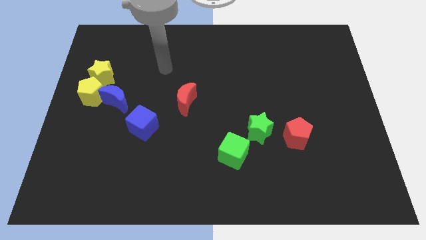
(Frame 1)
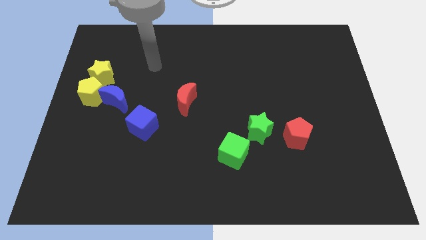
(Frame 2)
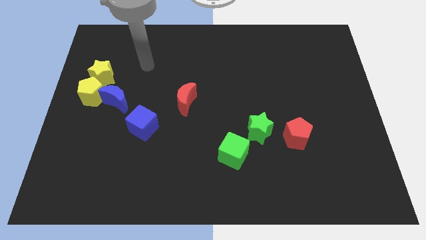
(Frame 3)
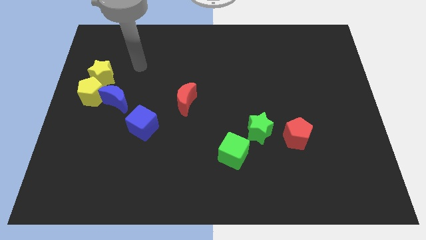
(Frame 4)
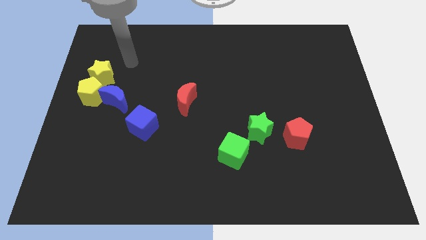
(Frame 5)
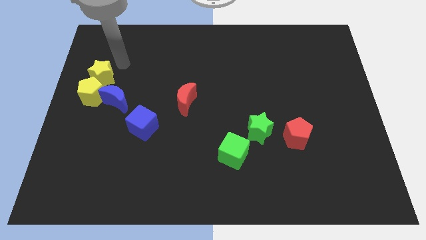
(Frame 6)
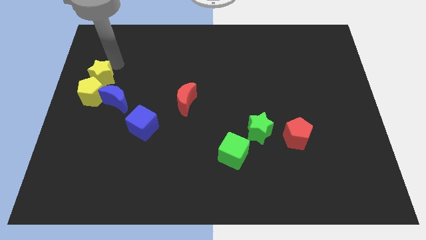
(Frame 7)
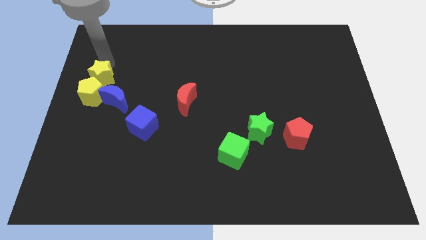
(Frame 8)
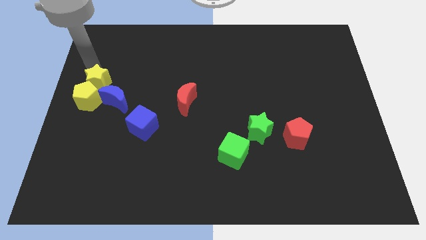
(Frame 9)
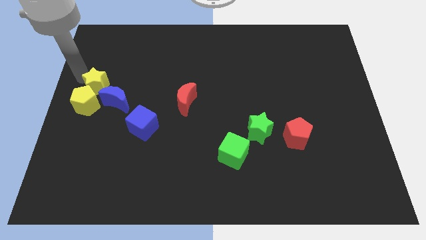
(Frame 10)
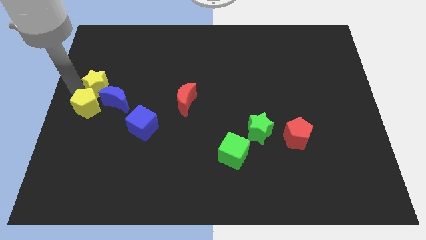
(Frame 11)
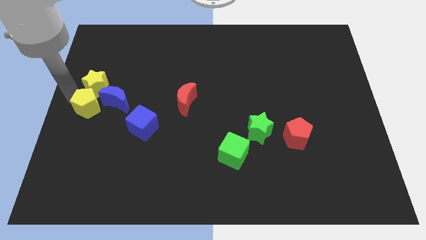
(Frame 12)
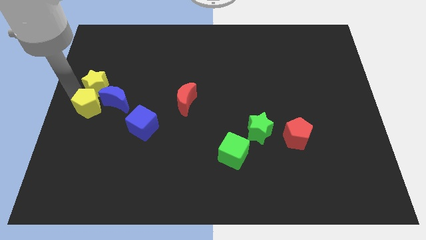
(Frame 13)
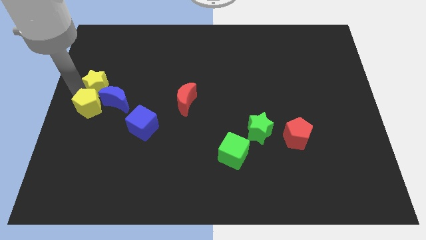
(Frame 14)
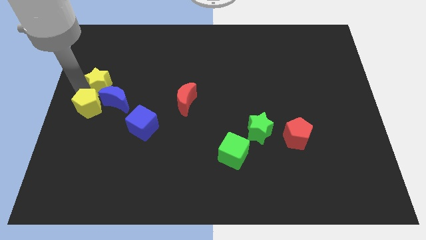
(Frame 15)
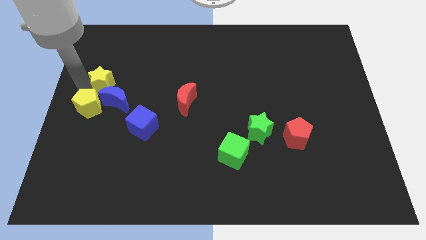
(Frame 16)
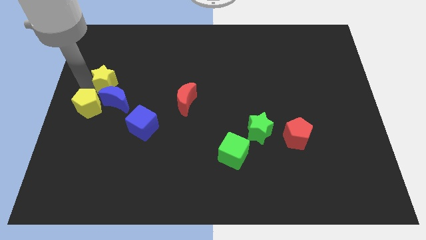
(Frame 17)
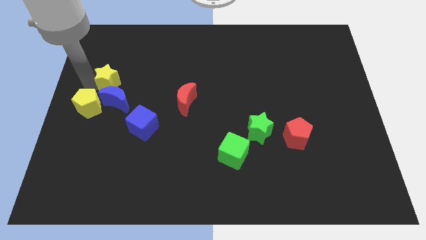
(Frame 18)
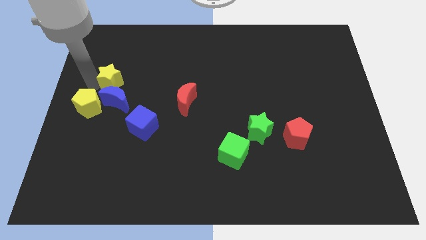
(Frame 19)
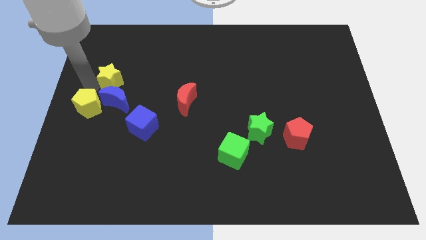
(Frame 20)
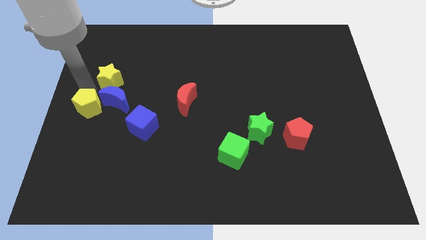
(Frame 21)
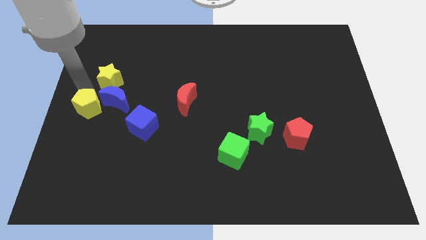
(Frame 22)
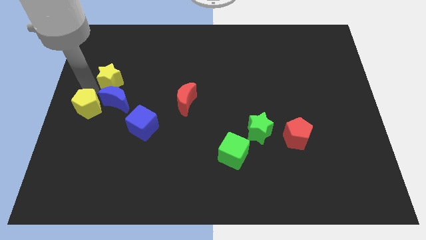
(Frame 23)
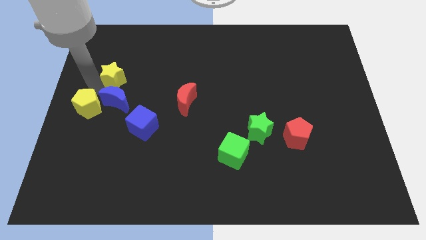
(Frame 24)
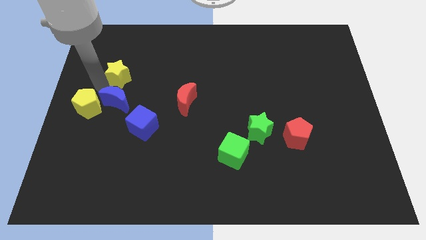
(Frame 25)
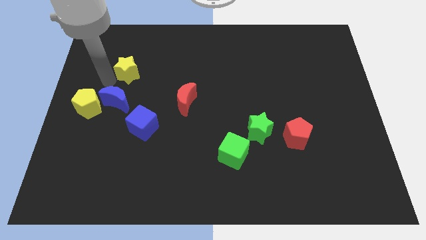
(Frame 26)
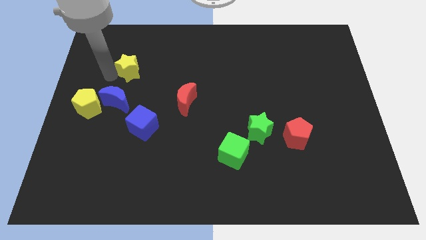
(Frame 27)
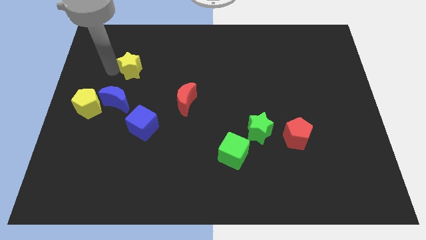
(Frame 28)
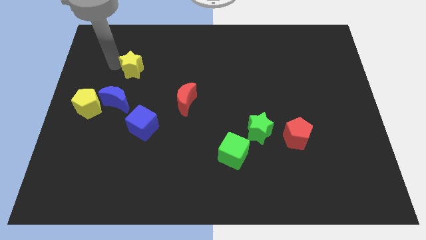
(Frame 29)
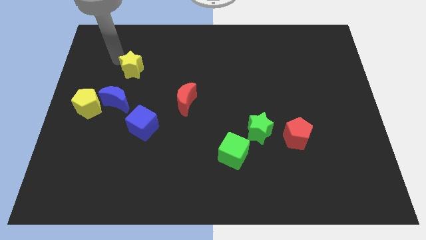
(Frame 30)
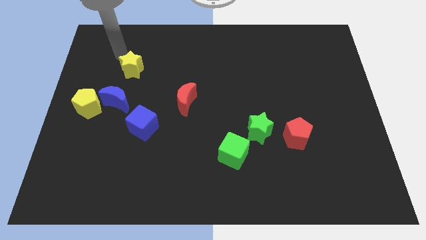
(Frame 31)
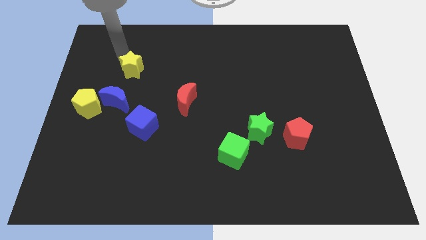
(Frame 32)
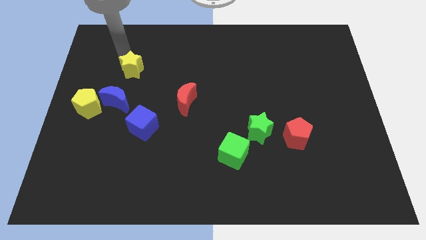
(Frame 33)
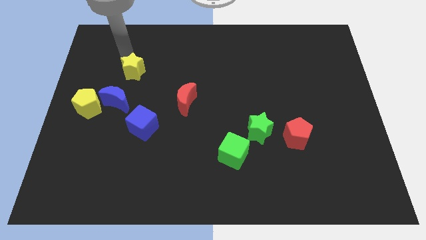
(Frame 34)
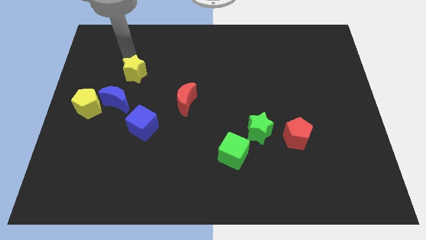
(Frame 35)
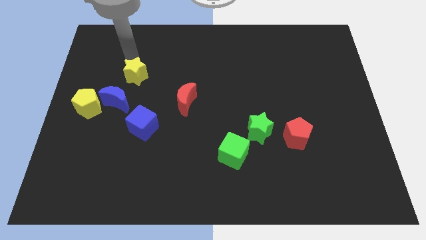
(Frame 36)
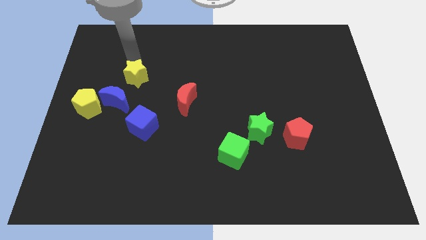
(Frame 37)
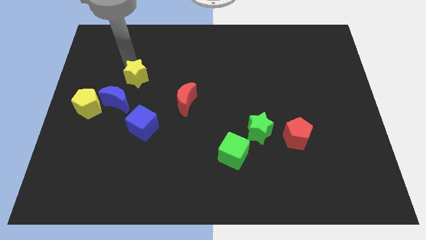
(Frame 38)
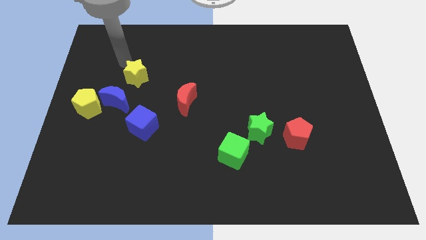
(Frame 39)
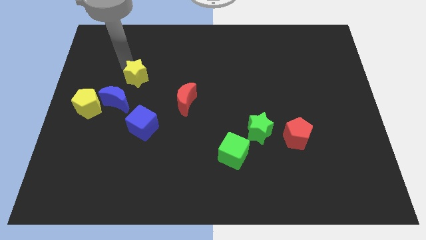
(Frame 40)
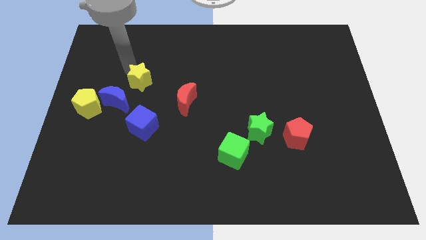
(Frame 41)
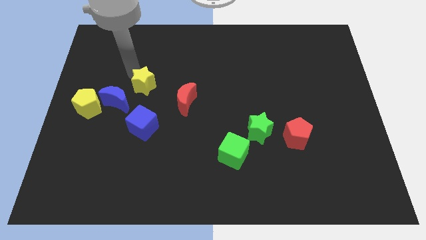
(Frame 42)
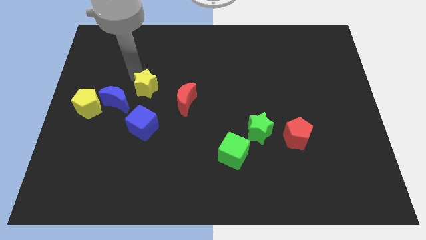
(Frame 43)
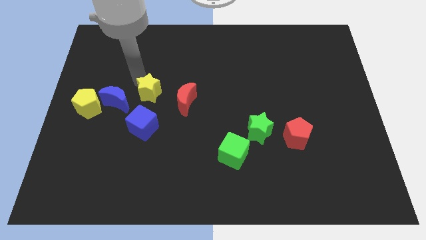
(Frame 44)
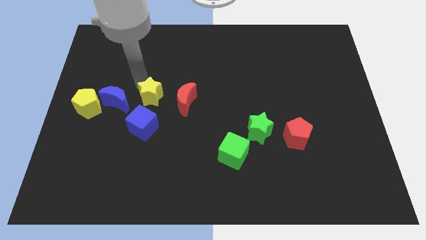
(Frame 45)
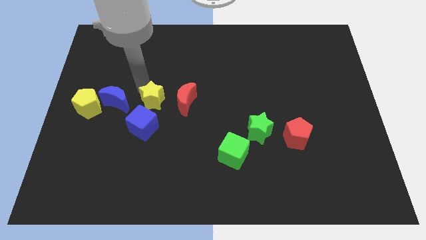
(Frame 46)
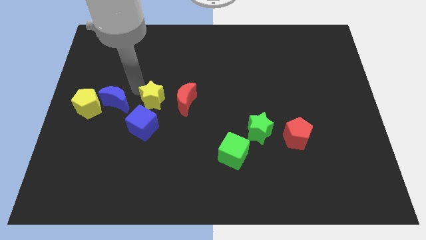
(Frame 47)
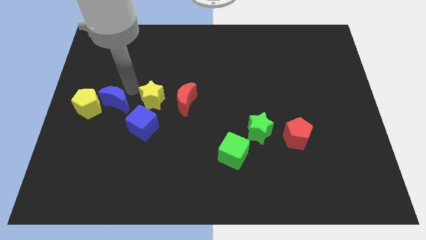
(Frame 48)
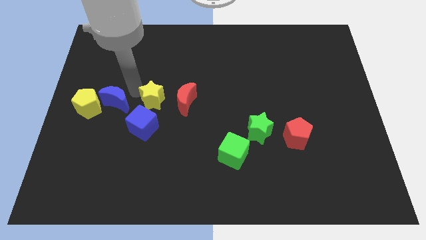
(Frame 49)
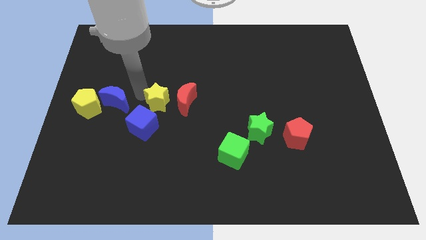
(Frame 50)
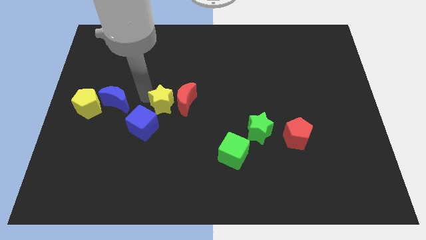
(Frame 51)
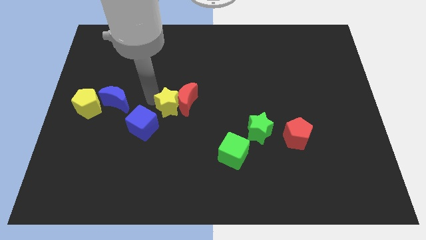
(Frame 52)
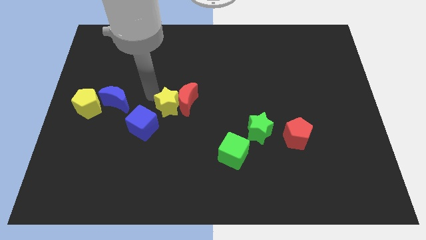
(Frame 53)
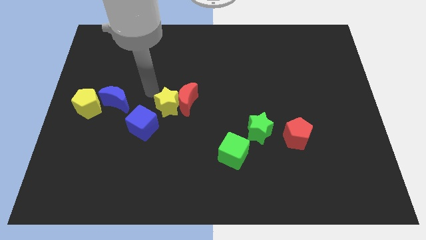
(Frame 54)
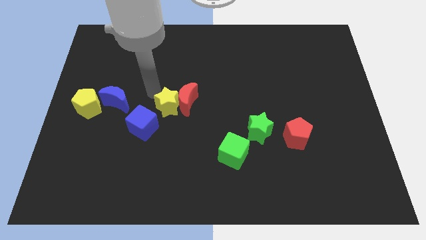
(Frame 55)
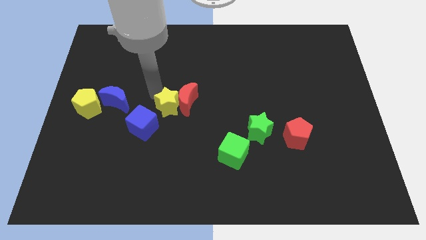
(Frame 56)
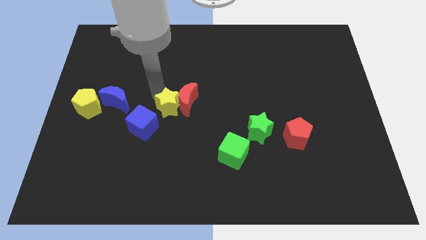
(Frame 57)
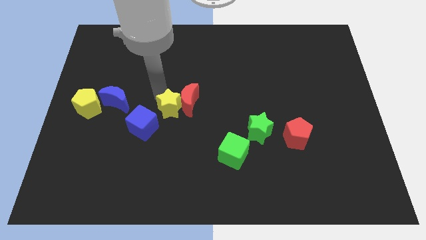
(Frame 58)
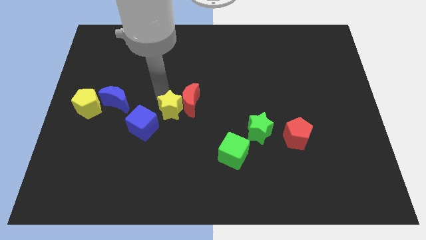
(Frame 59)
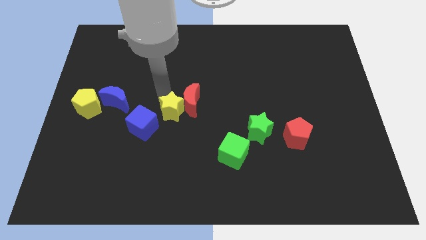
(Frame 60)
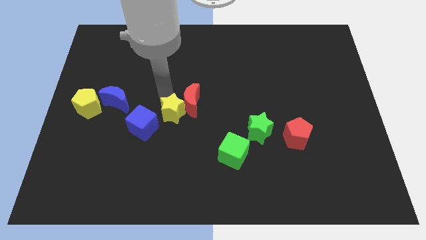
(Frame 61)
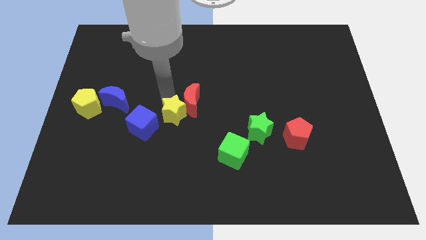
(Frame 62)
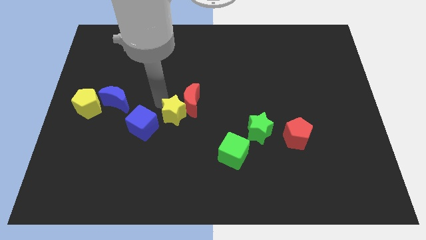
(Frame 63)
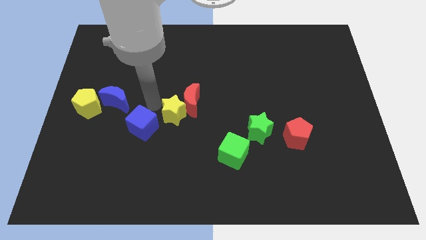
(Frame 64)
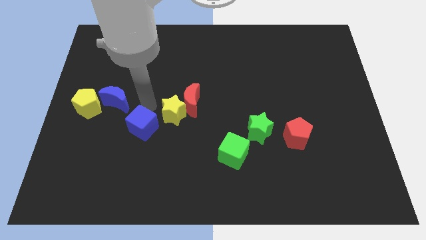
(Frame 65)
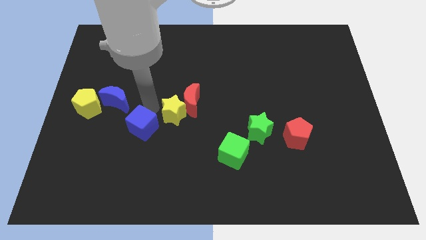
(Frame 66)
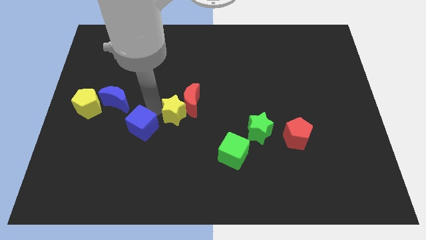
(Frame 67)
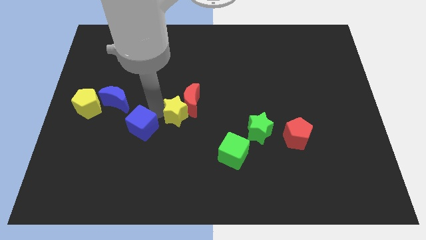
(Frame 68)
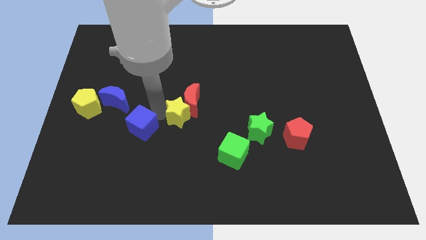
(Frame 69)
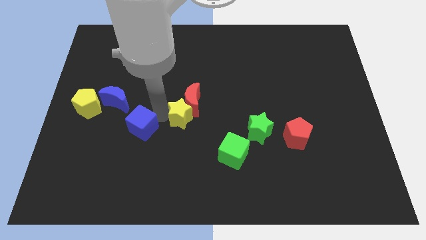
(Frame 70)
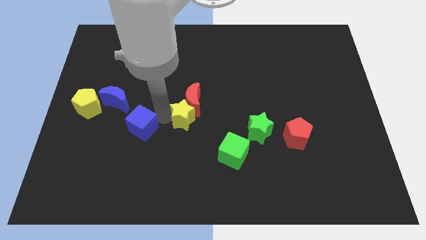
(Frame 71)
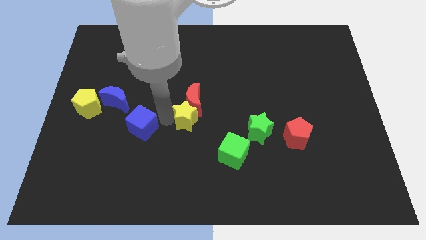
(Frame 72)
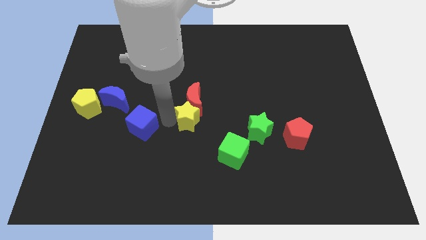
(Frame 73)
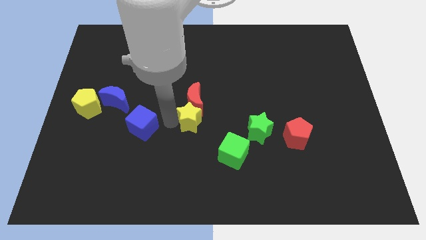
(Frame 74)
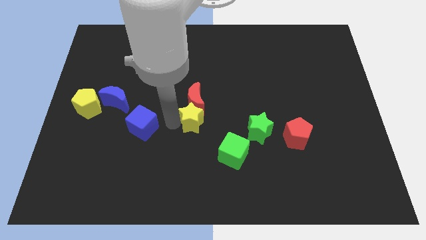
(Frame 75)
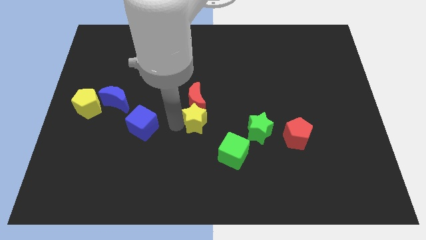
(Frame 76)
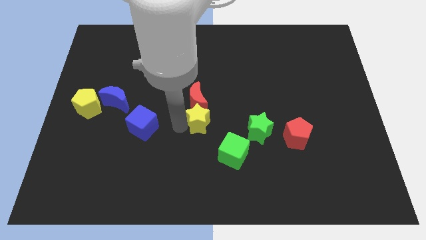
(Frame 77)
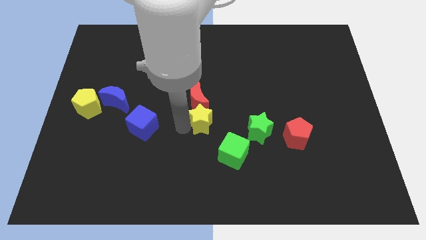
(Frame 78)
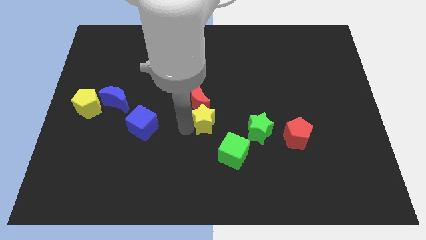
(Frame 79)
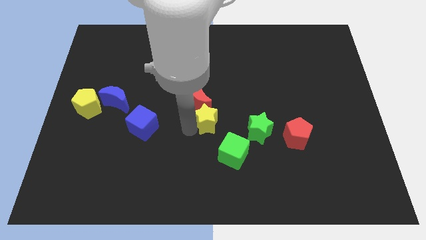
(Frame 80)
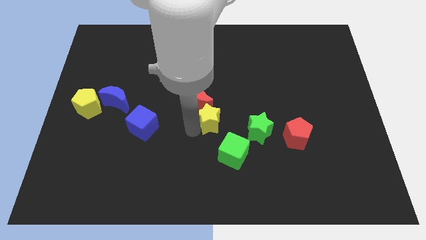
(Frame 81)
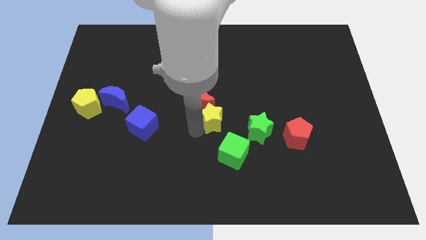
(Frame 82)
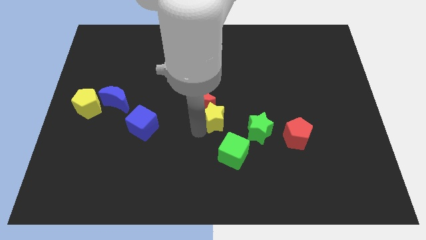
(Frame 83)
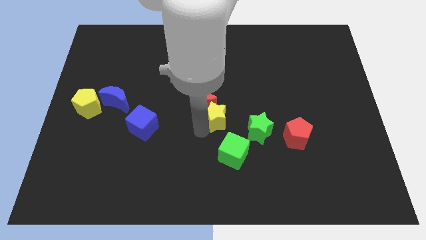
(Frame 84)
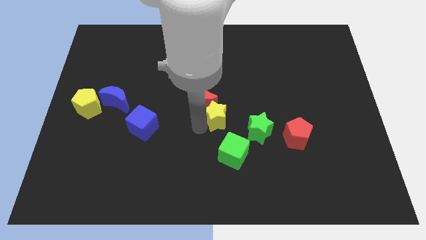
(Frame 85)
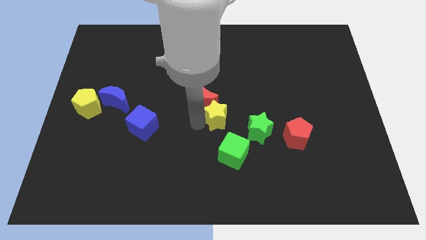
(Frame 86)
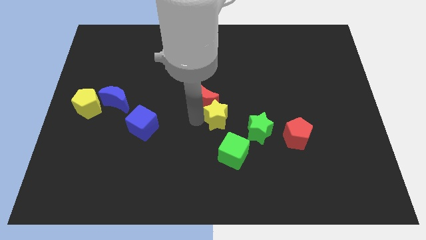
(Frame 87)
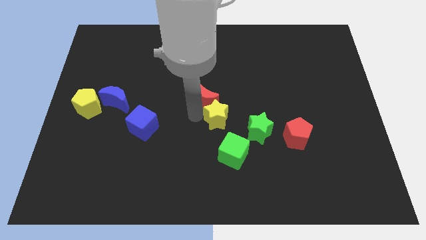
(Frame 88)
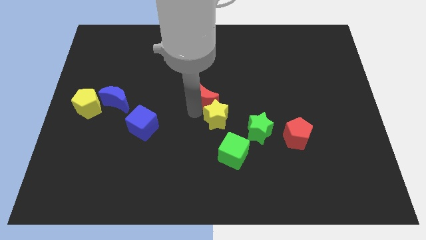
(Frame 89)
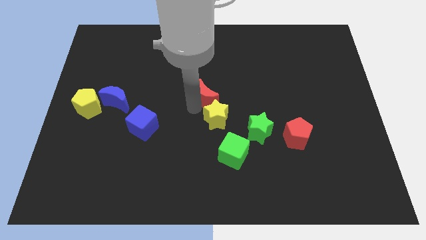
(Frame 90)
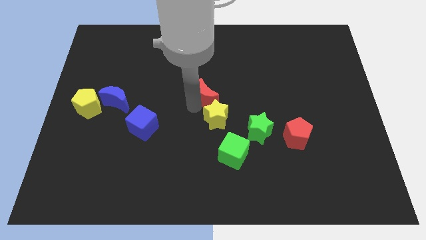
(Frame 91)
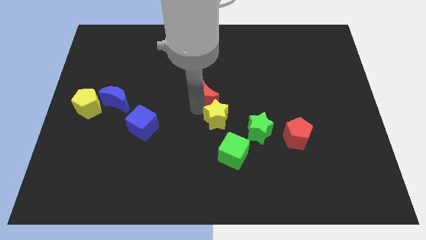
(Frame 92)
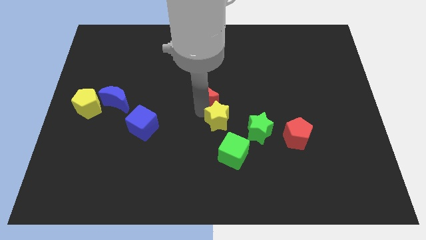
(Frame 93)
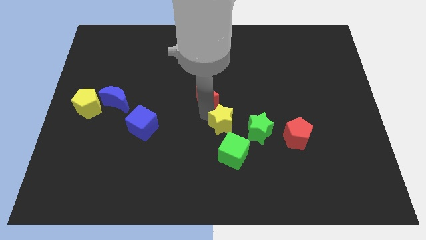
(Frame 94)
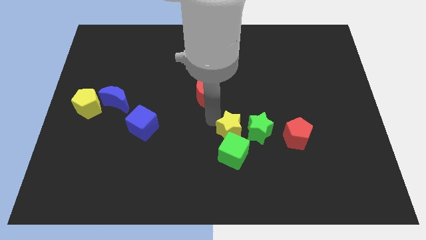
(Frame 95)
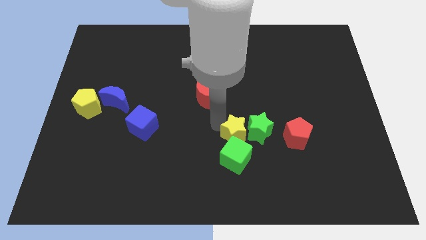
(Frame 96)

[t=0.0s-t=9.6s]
push the yellow star to the green star
